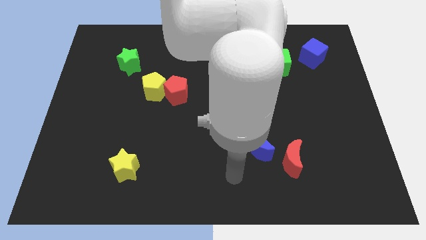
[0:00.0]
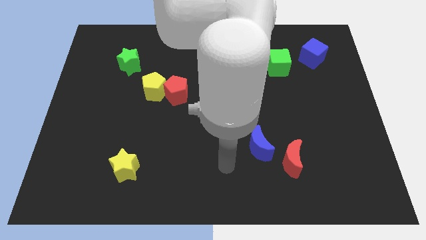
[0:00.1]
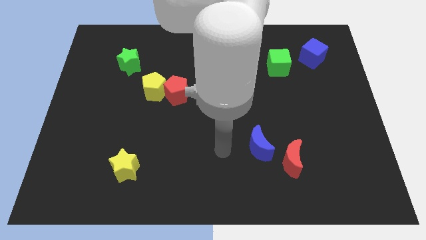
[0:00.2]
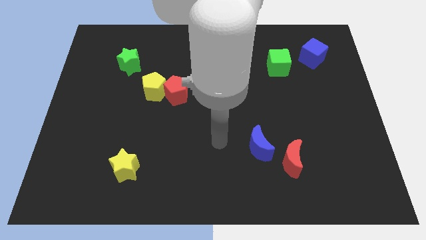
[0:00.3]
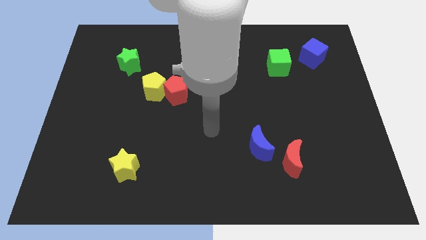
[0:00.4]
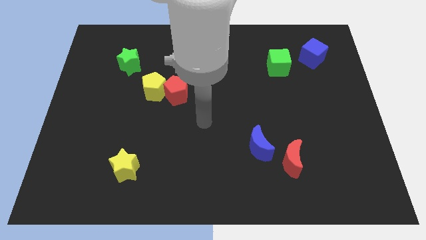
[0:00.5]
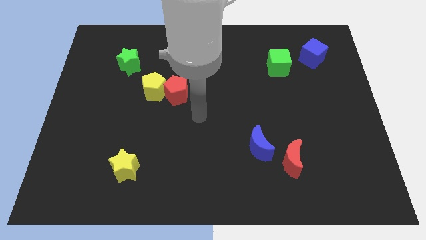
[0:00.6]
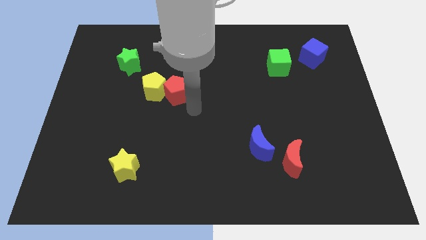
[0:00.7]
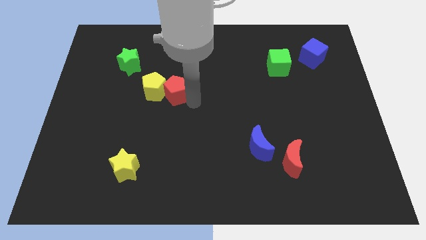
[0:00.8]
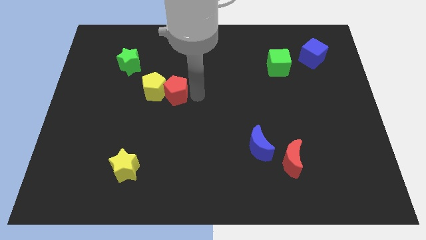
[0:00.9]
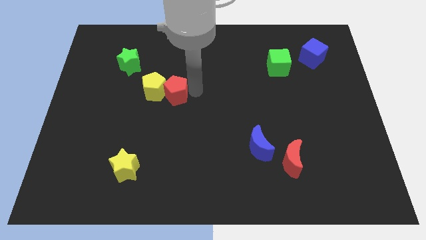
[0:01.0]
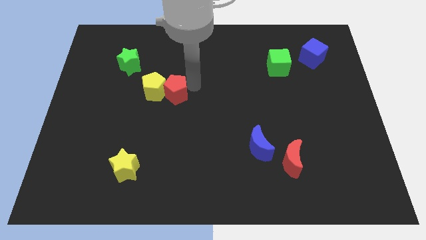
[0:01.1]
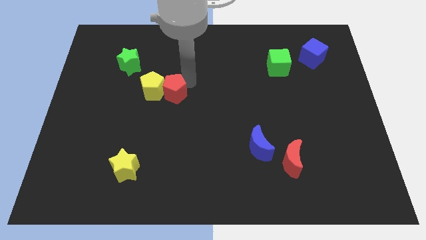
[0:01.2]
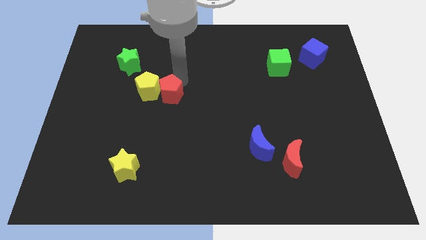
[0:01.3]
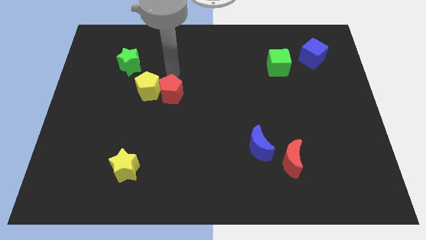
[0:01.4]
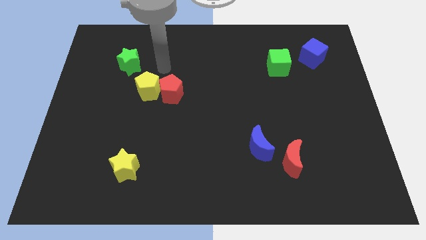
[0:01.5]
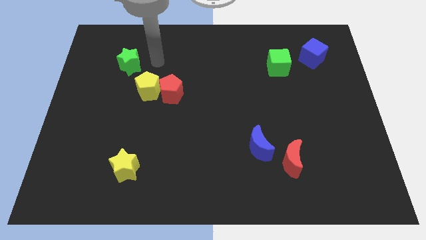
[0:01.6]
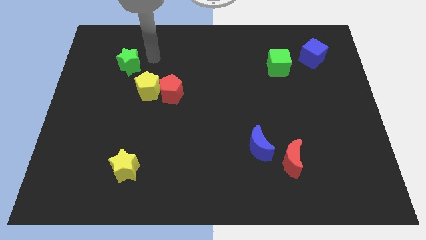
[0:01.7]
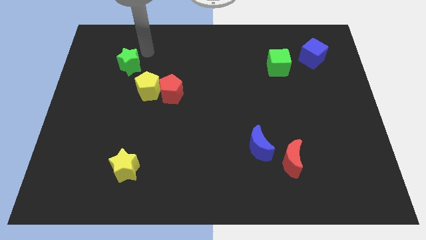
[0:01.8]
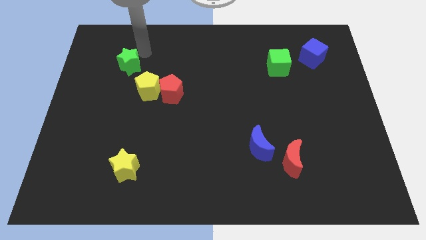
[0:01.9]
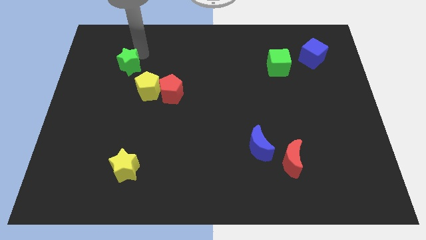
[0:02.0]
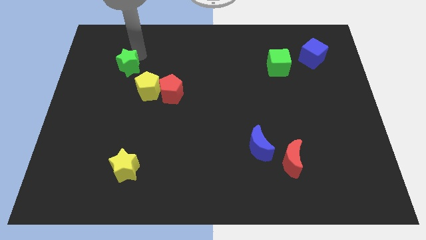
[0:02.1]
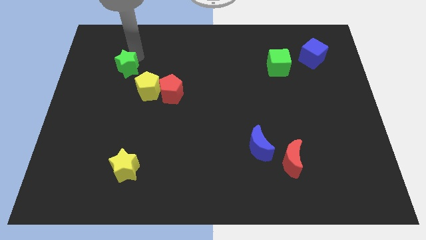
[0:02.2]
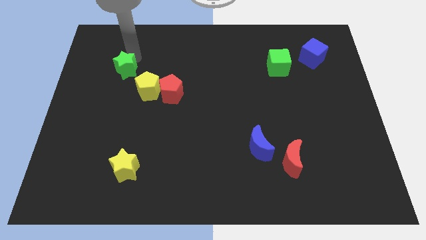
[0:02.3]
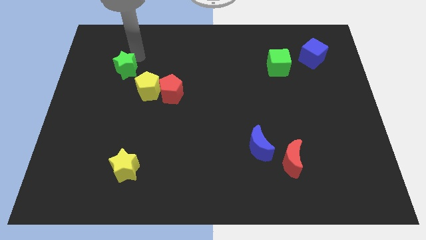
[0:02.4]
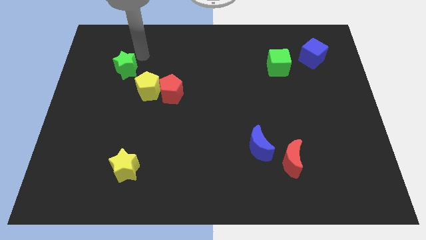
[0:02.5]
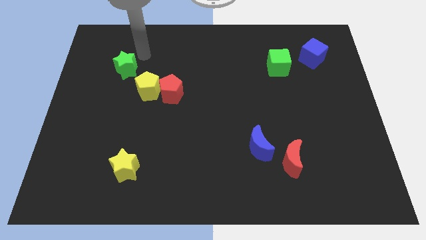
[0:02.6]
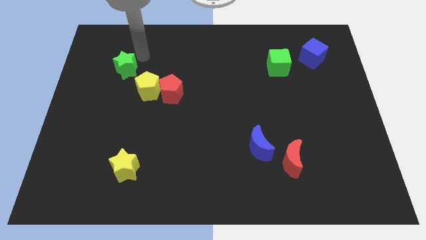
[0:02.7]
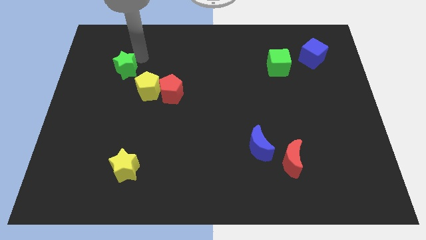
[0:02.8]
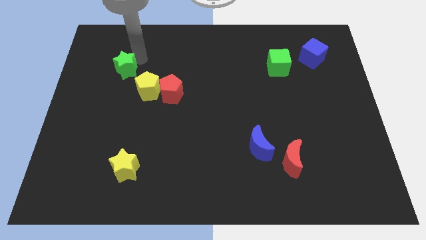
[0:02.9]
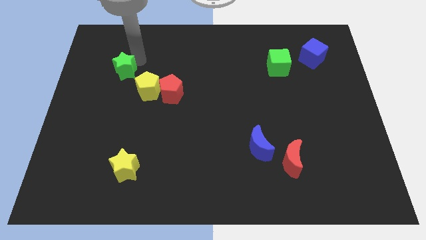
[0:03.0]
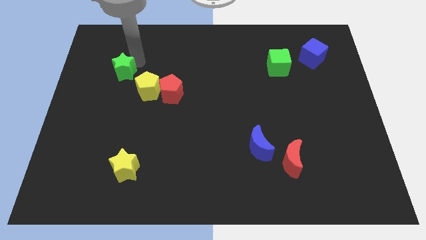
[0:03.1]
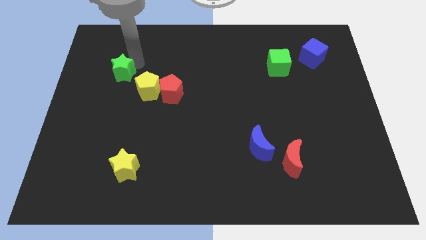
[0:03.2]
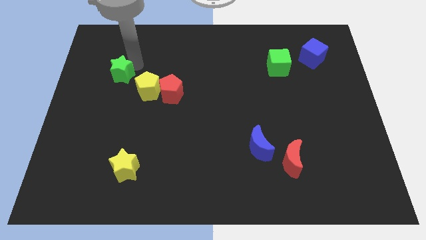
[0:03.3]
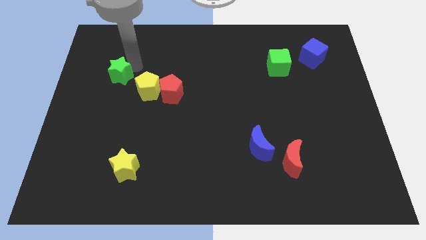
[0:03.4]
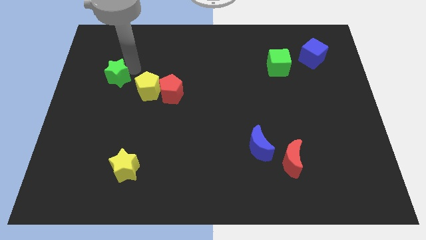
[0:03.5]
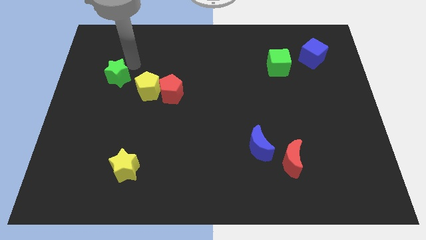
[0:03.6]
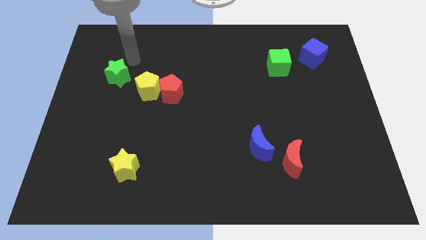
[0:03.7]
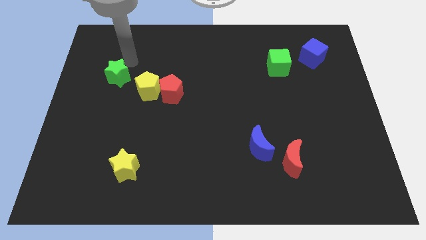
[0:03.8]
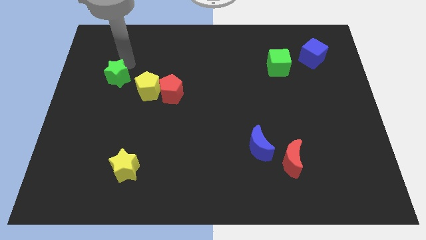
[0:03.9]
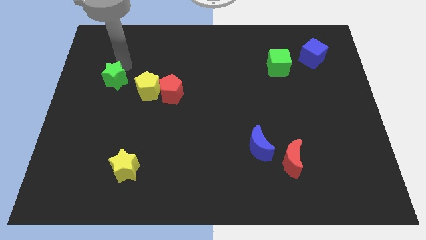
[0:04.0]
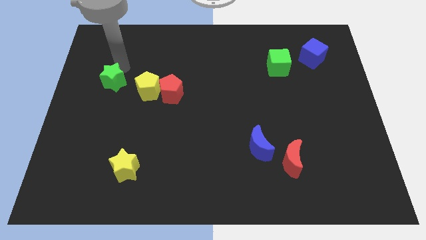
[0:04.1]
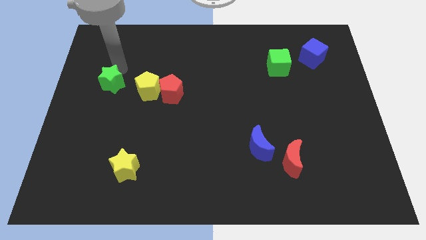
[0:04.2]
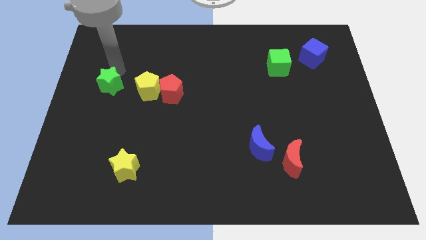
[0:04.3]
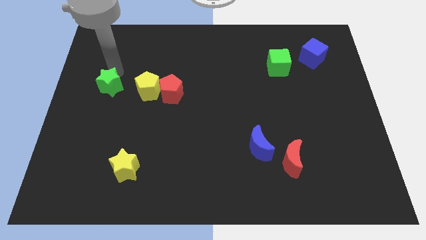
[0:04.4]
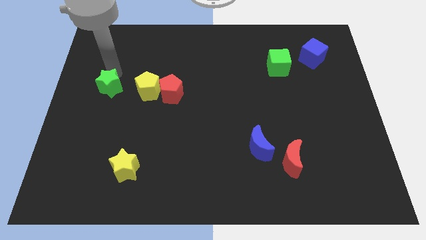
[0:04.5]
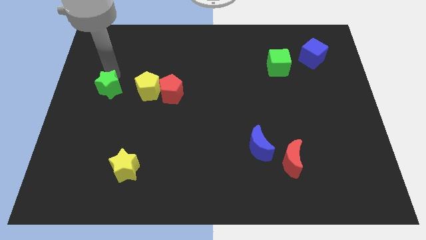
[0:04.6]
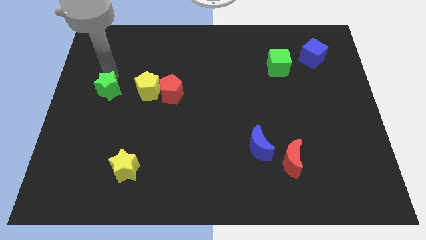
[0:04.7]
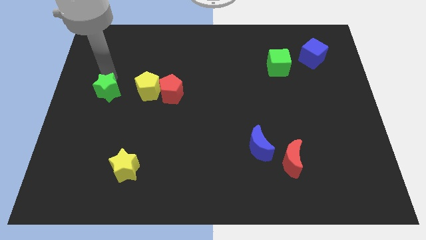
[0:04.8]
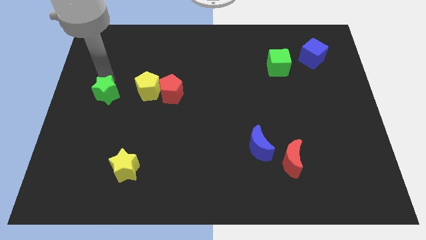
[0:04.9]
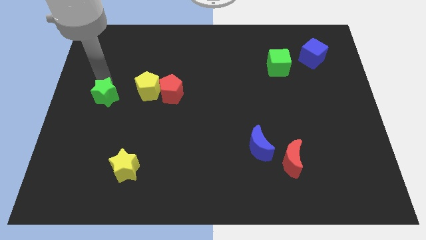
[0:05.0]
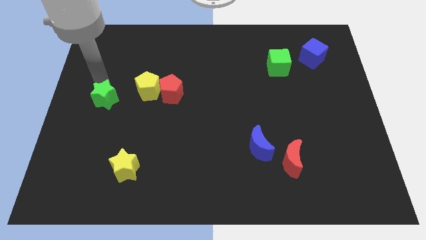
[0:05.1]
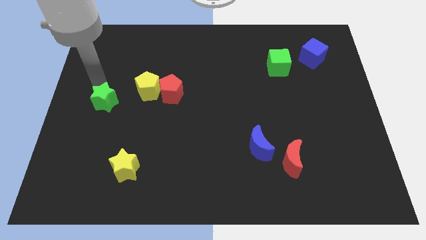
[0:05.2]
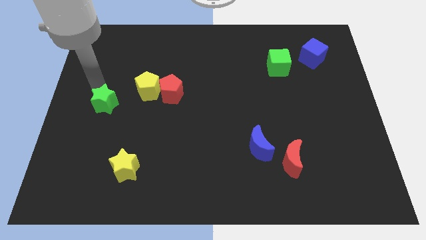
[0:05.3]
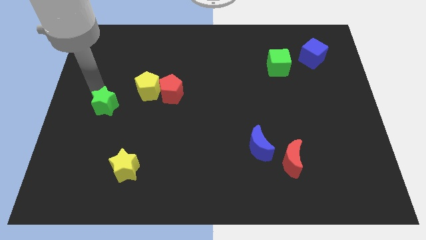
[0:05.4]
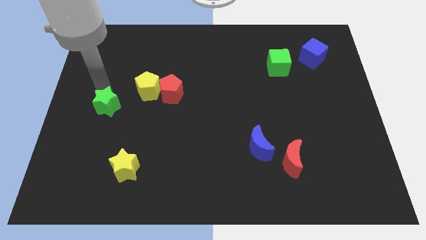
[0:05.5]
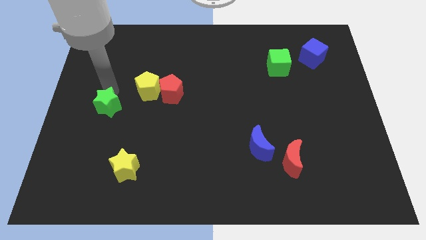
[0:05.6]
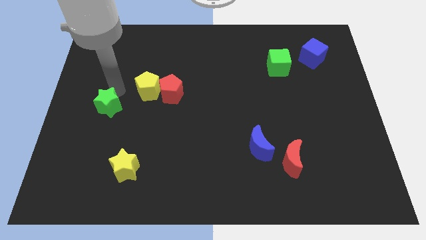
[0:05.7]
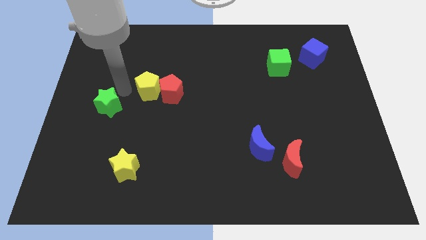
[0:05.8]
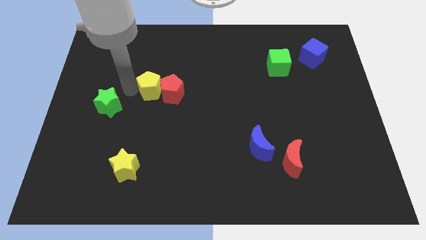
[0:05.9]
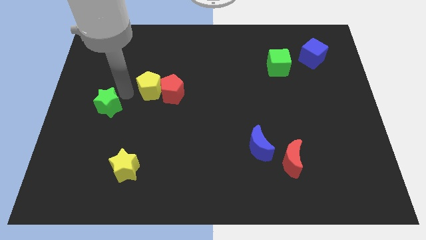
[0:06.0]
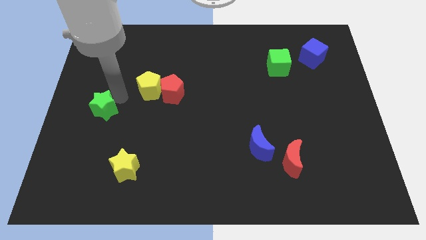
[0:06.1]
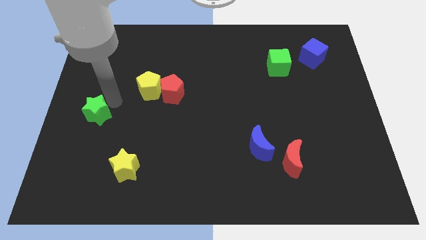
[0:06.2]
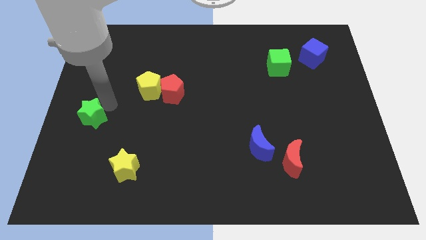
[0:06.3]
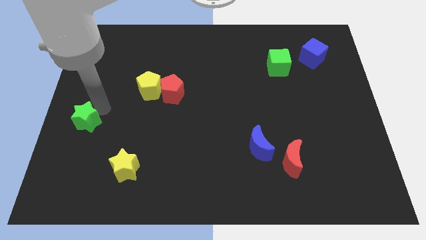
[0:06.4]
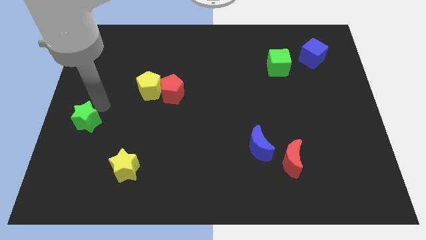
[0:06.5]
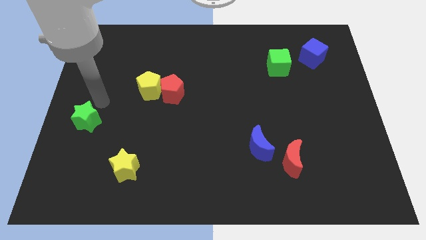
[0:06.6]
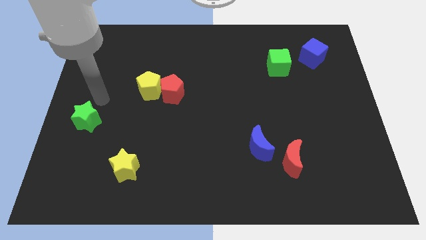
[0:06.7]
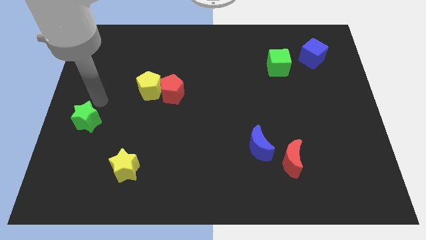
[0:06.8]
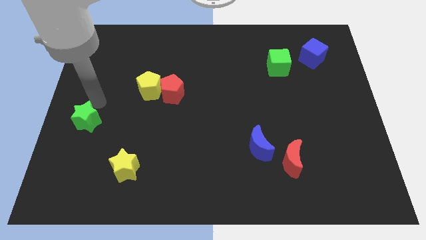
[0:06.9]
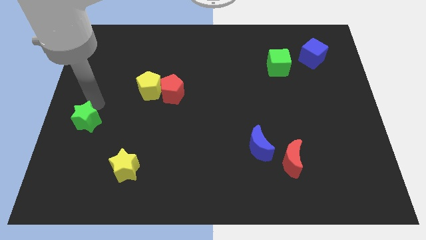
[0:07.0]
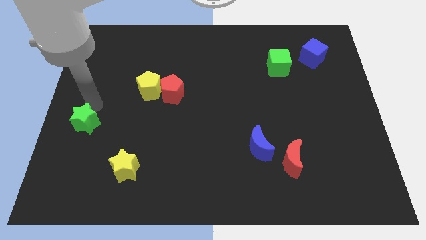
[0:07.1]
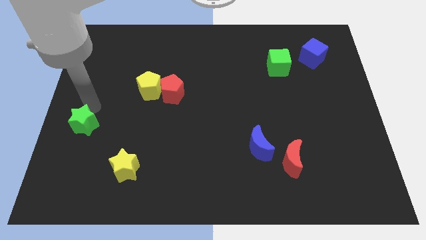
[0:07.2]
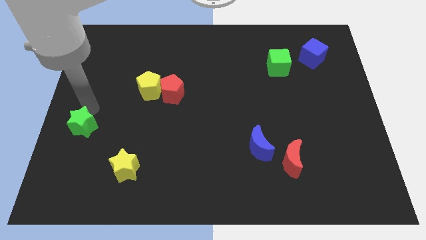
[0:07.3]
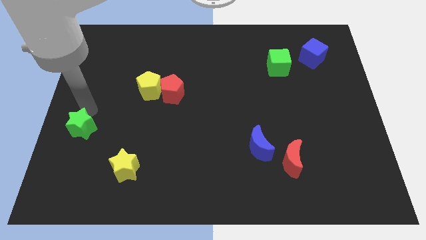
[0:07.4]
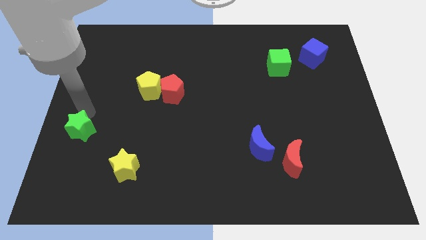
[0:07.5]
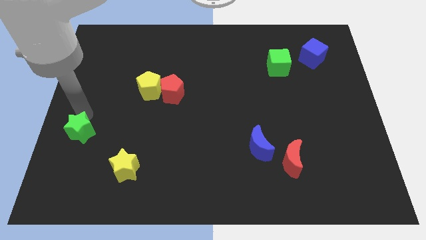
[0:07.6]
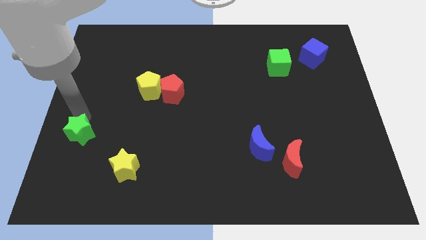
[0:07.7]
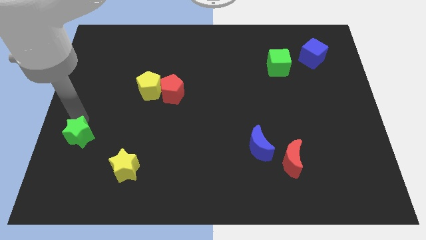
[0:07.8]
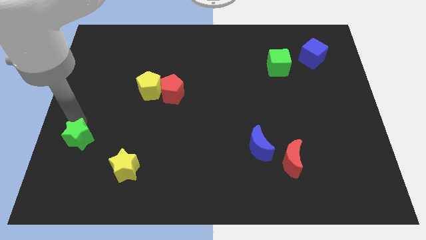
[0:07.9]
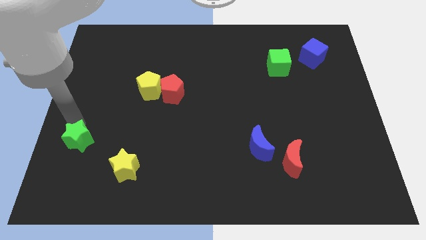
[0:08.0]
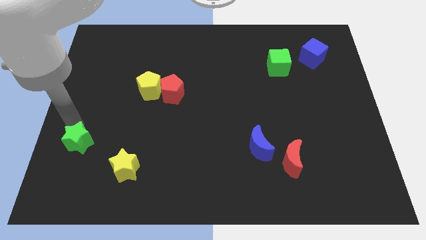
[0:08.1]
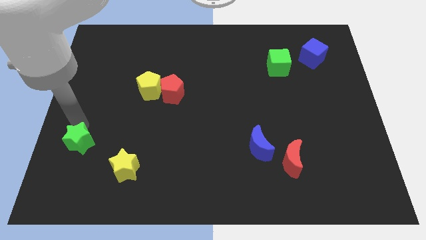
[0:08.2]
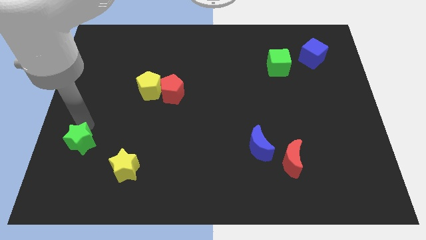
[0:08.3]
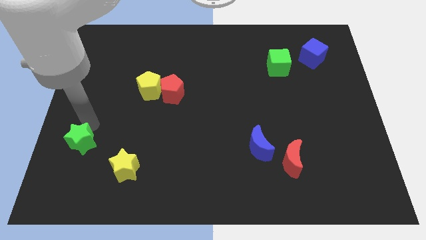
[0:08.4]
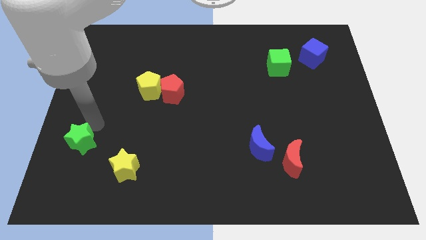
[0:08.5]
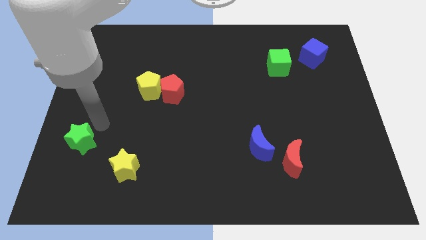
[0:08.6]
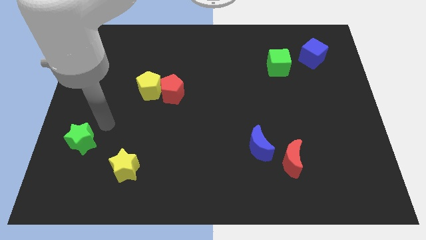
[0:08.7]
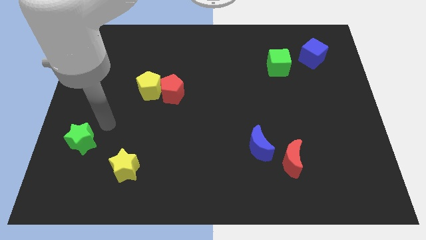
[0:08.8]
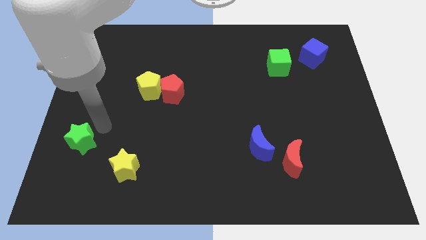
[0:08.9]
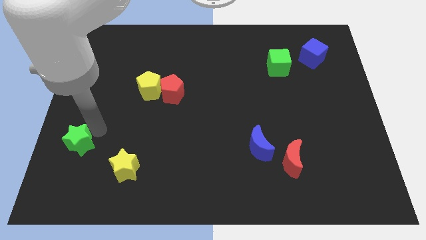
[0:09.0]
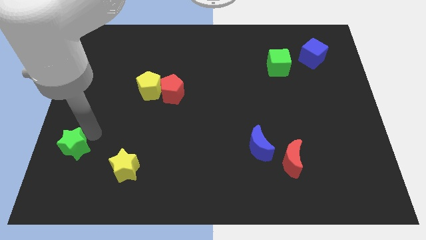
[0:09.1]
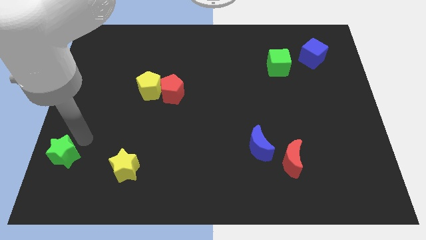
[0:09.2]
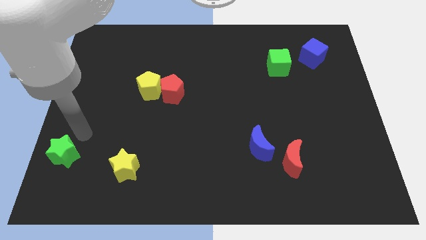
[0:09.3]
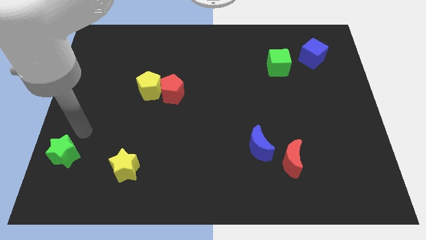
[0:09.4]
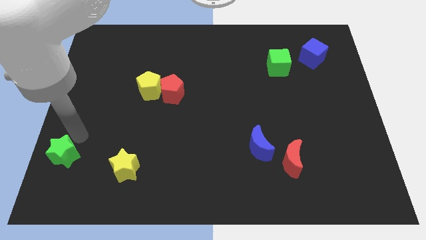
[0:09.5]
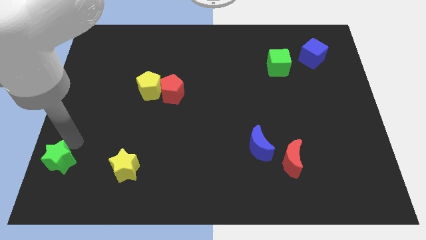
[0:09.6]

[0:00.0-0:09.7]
push the green star to the lower left corner
